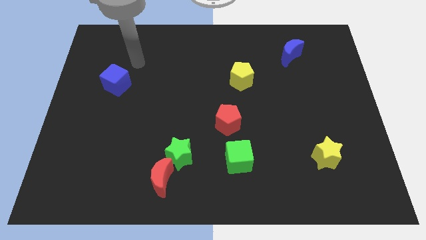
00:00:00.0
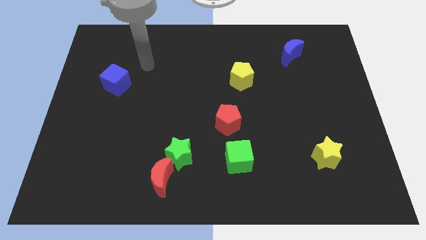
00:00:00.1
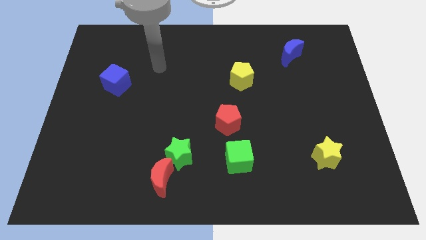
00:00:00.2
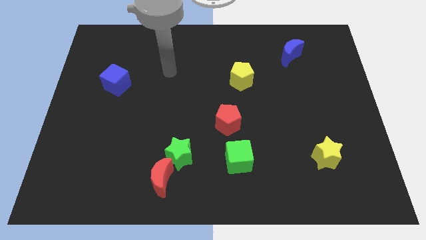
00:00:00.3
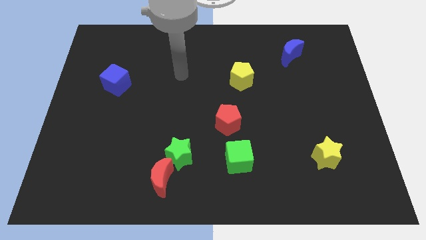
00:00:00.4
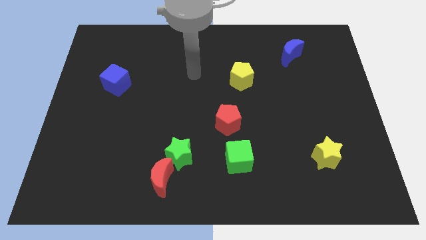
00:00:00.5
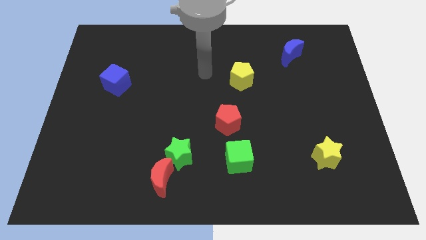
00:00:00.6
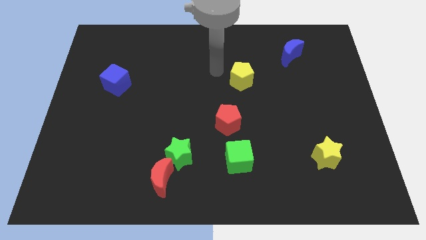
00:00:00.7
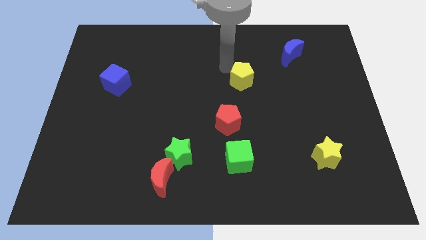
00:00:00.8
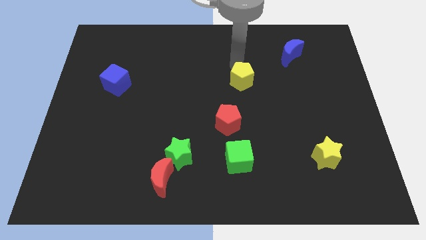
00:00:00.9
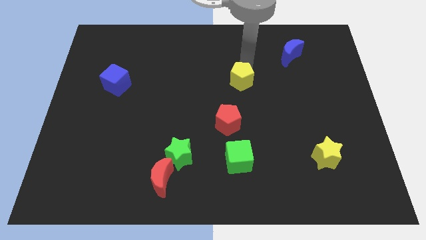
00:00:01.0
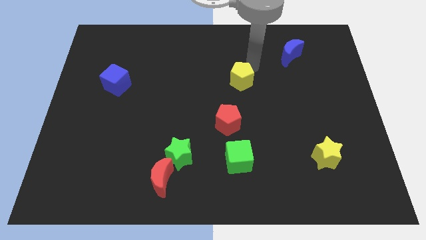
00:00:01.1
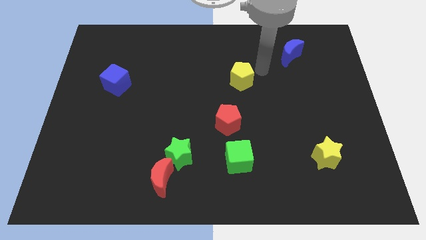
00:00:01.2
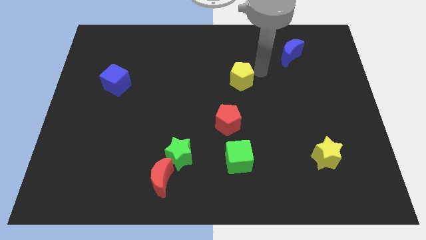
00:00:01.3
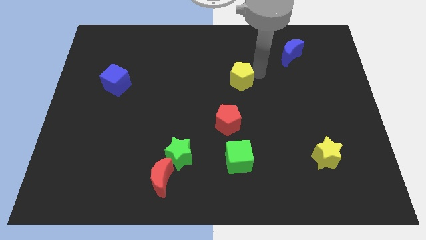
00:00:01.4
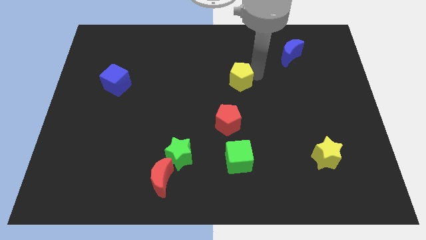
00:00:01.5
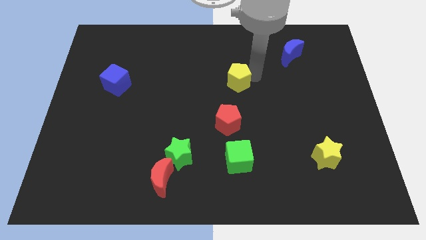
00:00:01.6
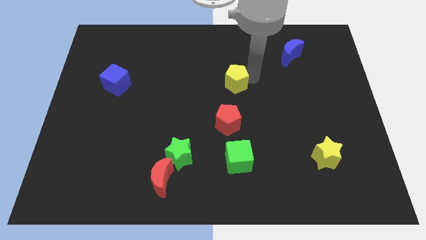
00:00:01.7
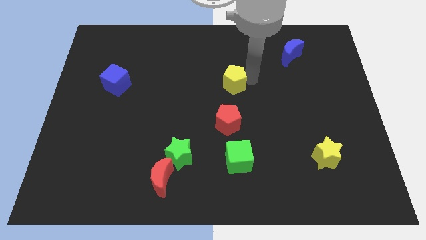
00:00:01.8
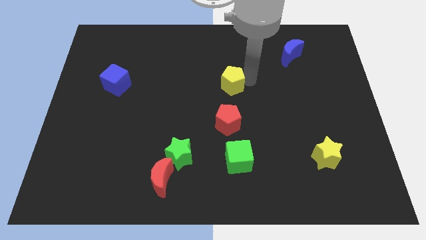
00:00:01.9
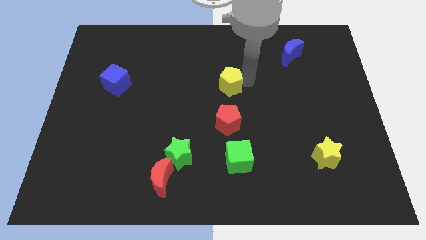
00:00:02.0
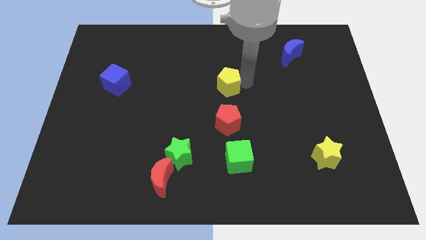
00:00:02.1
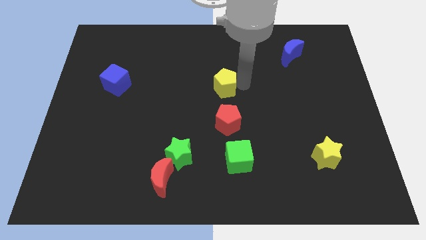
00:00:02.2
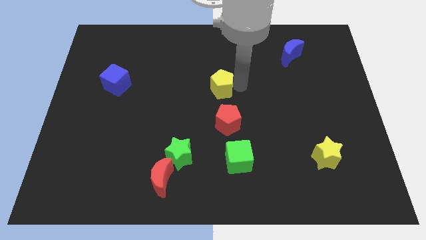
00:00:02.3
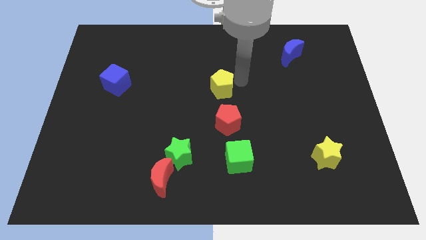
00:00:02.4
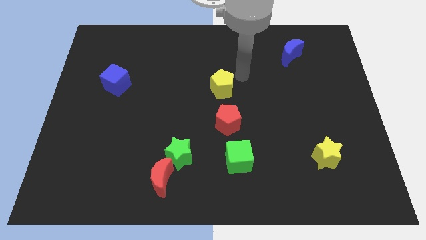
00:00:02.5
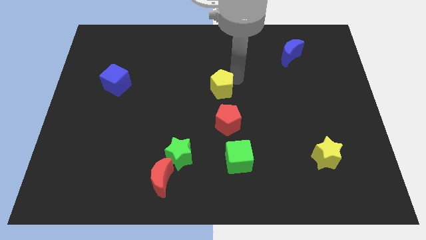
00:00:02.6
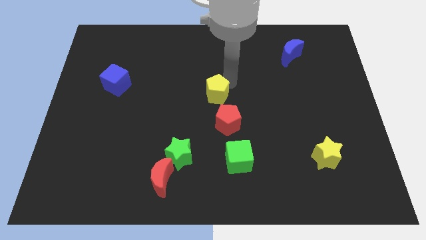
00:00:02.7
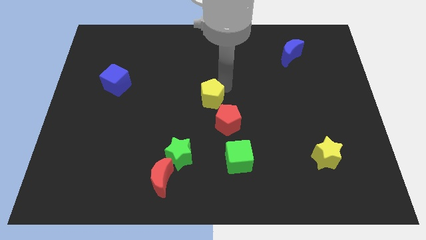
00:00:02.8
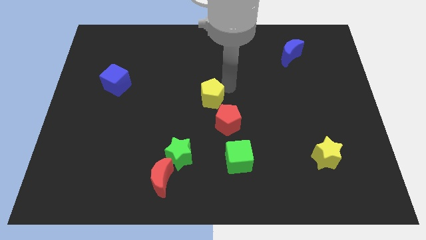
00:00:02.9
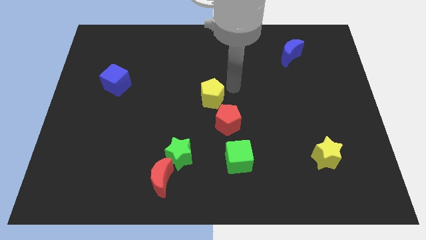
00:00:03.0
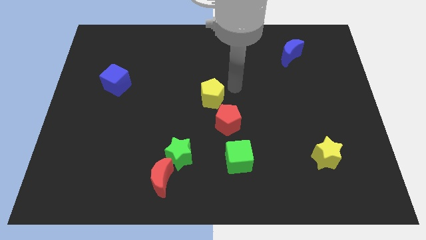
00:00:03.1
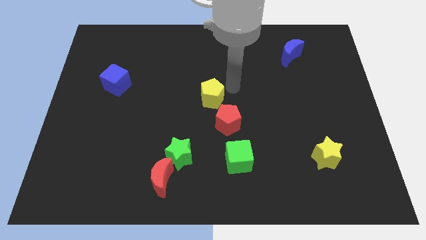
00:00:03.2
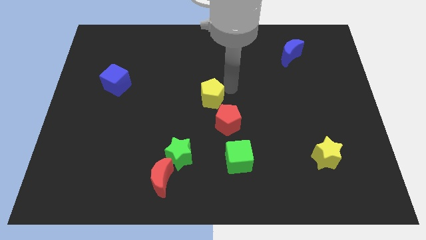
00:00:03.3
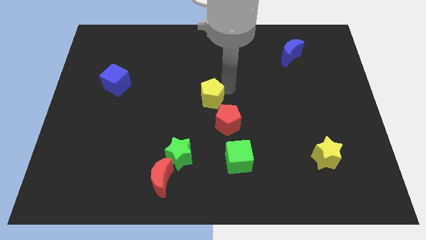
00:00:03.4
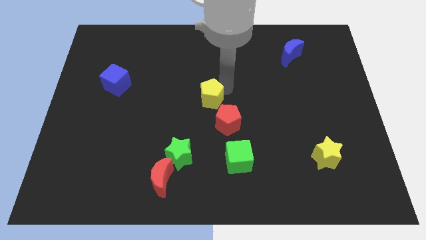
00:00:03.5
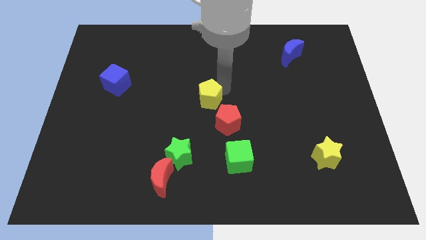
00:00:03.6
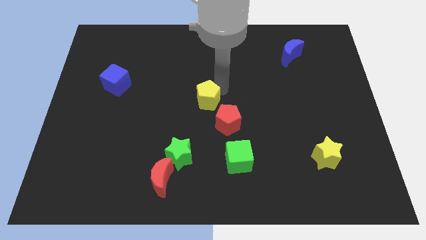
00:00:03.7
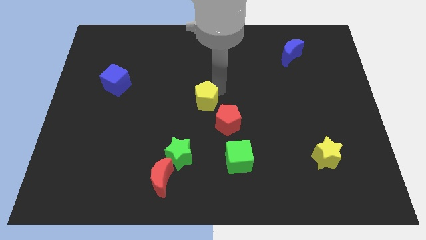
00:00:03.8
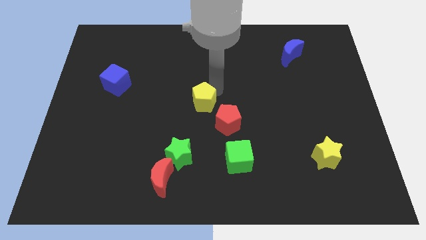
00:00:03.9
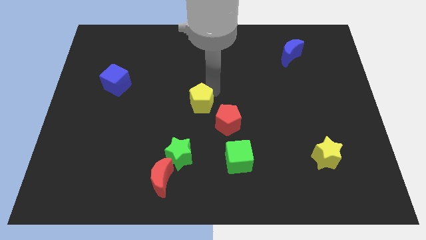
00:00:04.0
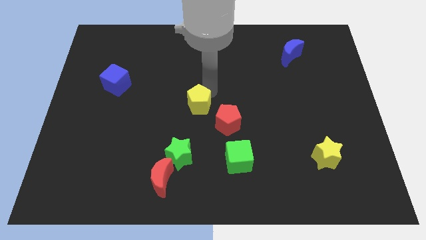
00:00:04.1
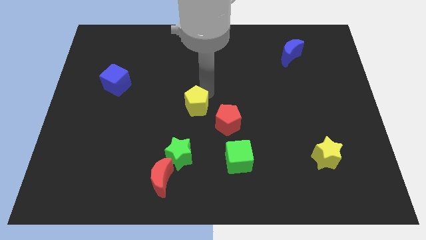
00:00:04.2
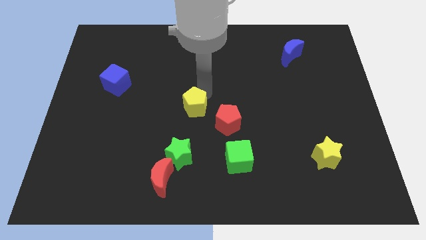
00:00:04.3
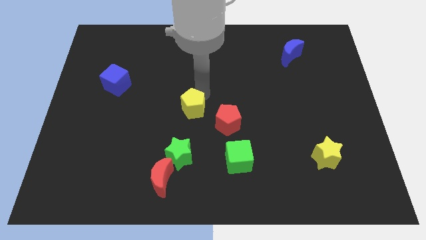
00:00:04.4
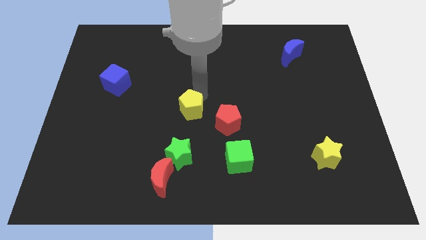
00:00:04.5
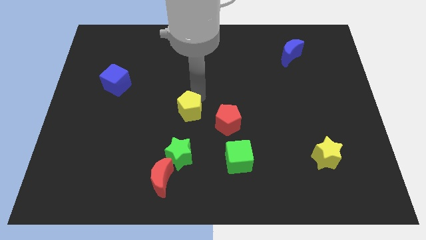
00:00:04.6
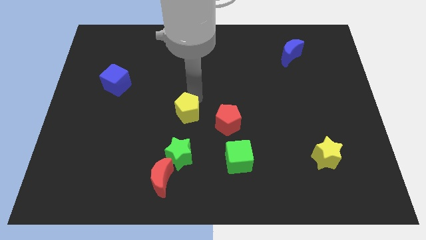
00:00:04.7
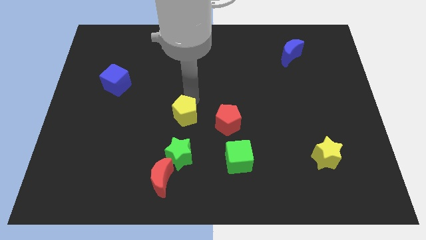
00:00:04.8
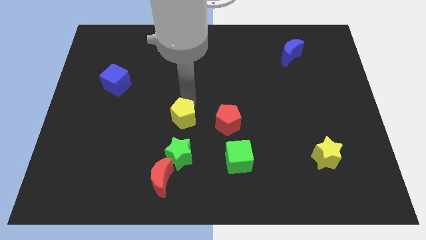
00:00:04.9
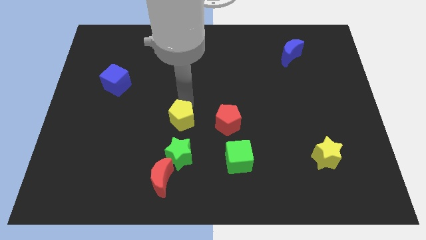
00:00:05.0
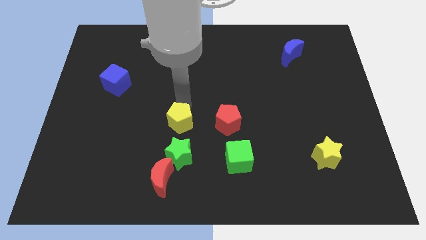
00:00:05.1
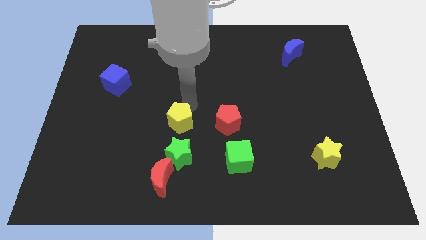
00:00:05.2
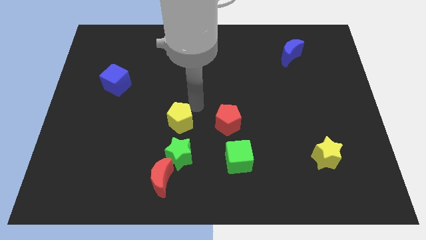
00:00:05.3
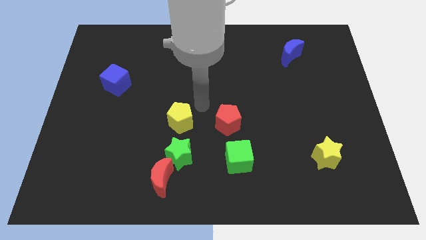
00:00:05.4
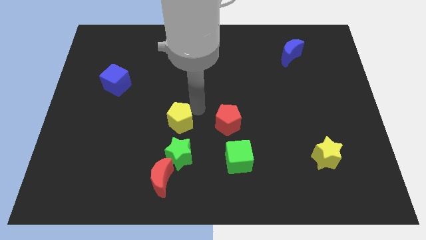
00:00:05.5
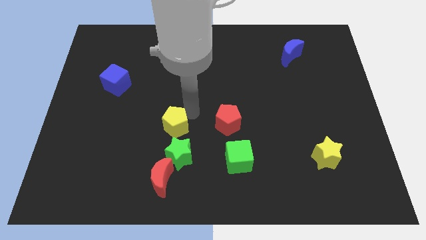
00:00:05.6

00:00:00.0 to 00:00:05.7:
put the yellow pentagon to the top left of the green star

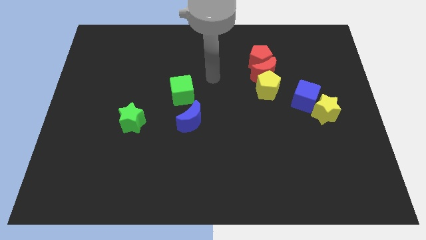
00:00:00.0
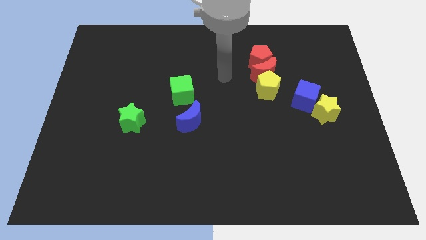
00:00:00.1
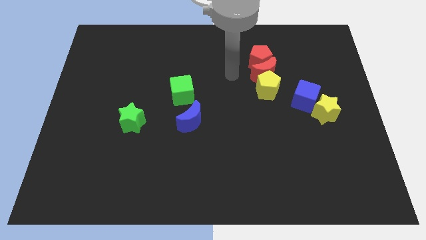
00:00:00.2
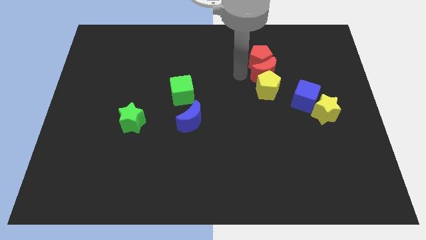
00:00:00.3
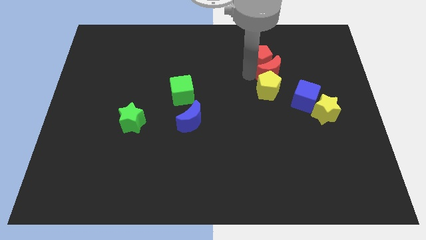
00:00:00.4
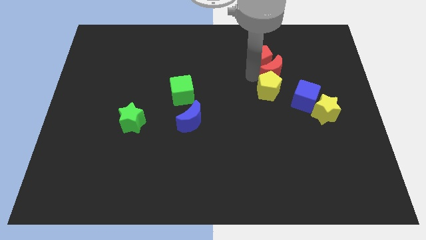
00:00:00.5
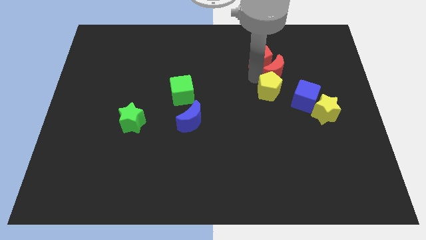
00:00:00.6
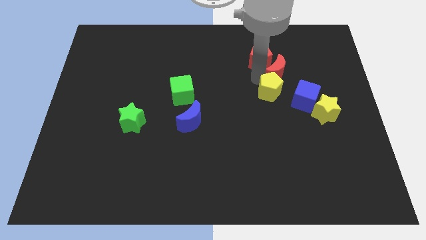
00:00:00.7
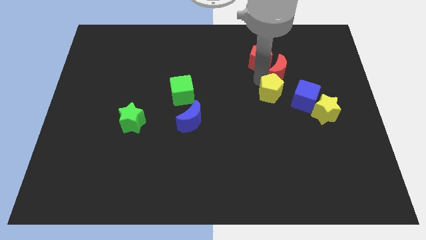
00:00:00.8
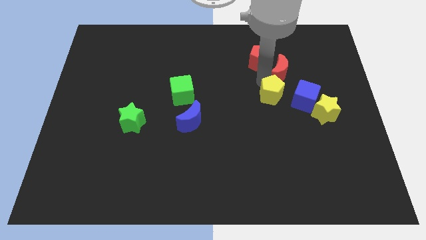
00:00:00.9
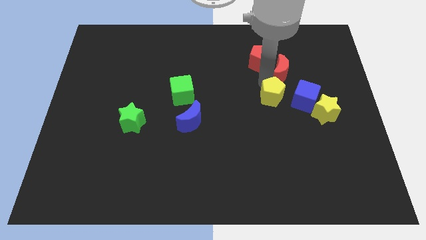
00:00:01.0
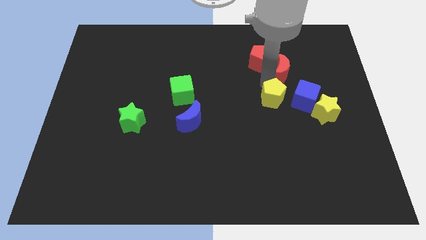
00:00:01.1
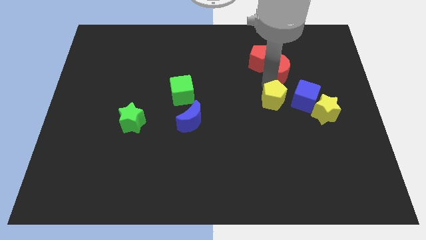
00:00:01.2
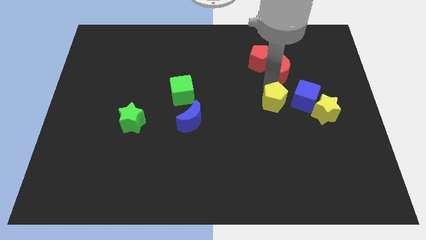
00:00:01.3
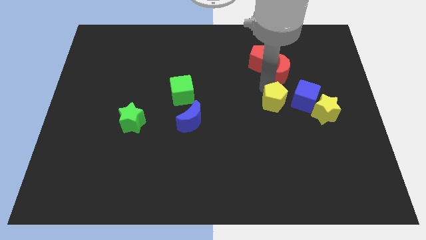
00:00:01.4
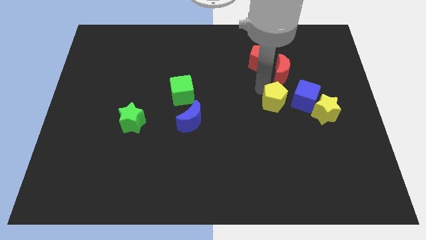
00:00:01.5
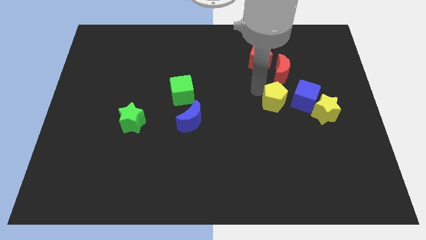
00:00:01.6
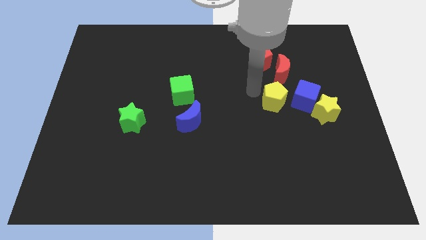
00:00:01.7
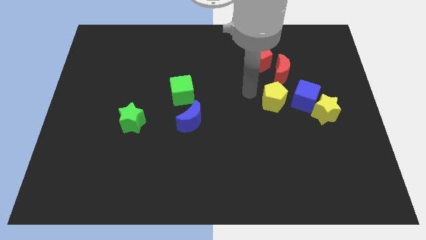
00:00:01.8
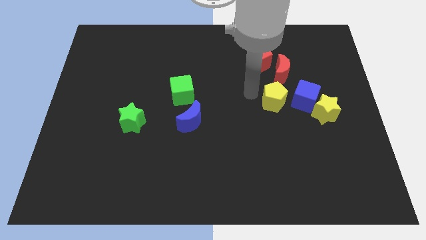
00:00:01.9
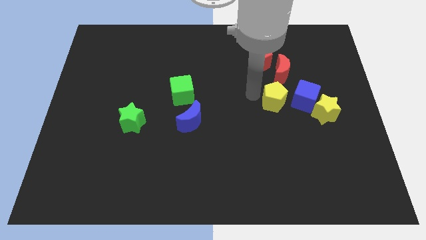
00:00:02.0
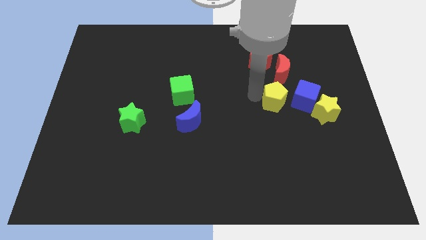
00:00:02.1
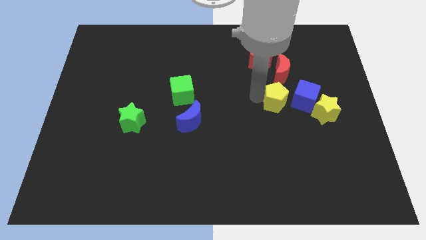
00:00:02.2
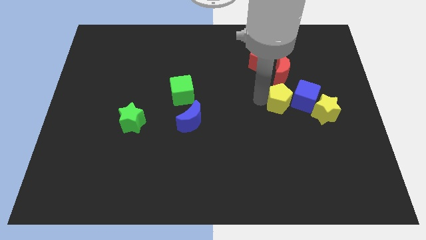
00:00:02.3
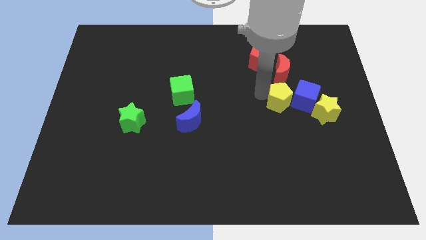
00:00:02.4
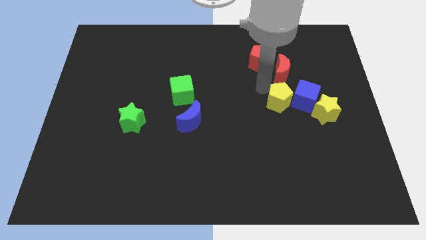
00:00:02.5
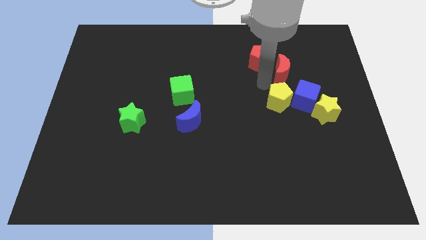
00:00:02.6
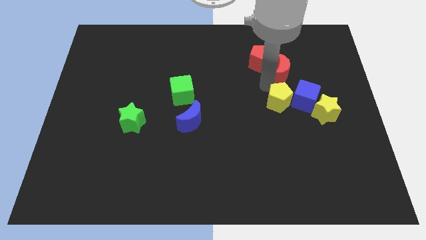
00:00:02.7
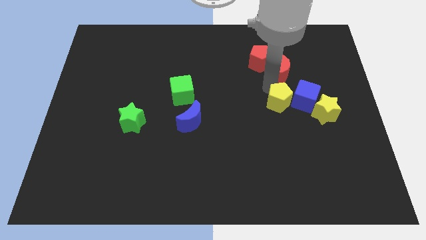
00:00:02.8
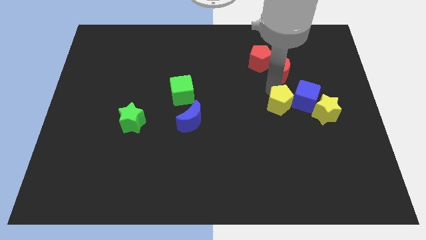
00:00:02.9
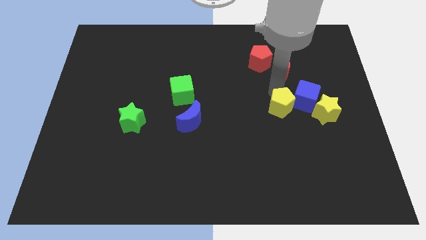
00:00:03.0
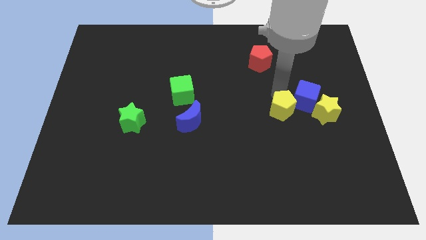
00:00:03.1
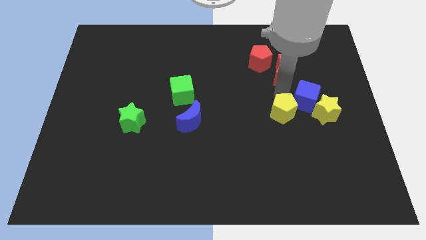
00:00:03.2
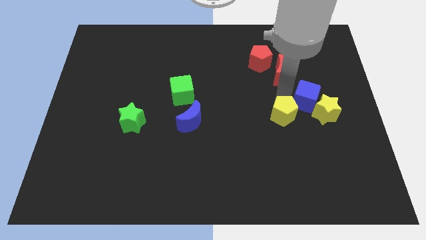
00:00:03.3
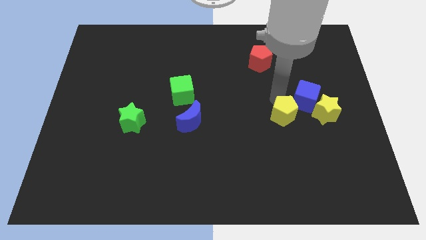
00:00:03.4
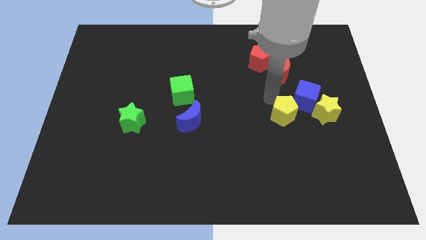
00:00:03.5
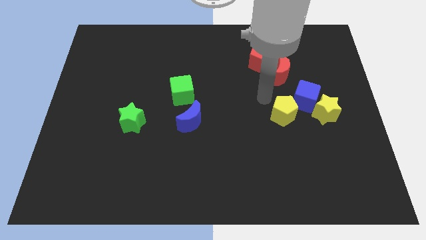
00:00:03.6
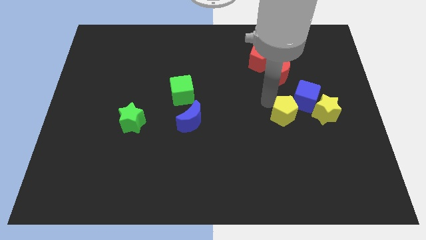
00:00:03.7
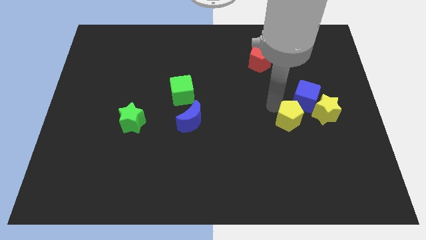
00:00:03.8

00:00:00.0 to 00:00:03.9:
put the yellow pentagon to the bottom left of the yellow star
